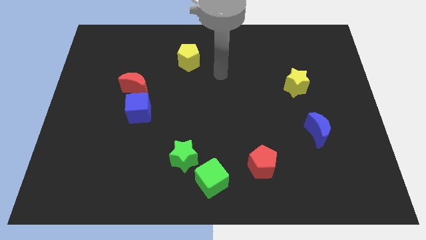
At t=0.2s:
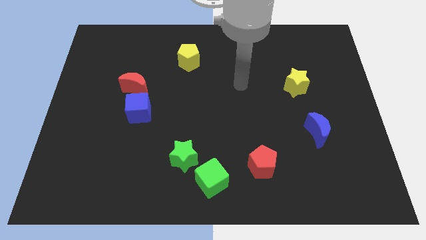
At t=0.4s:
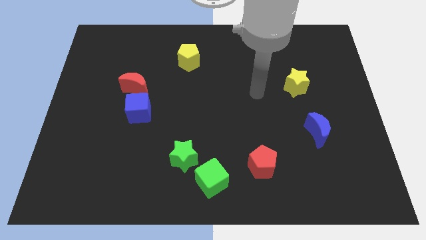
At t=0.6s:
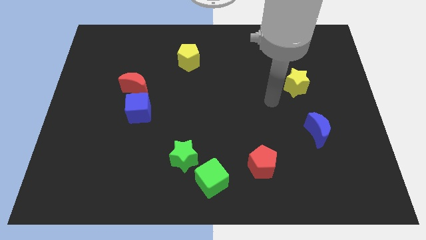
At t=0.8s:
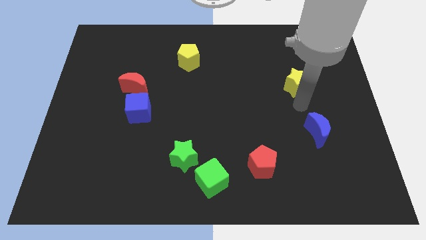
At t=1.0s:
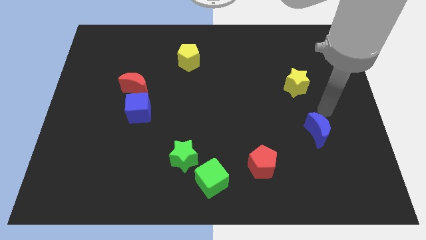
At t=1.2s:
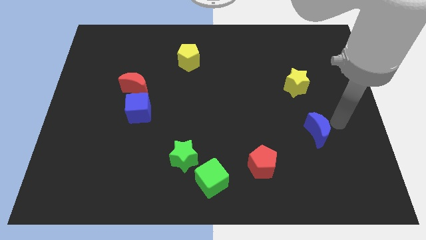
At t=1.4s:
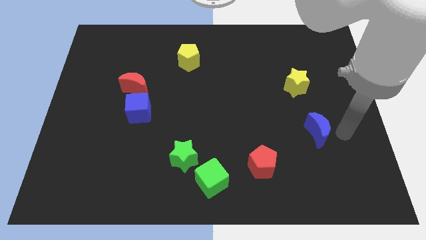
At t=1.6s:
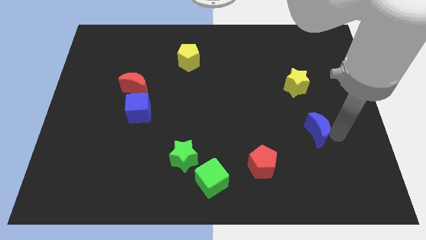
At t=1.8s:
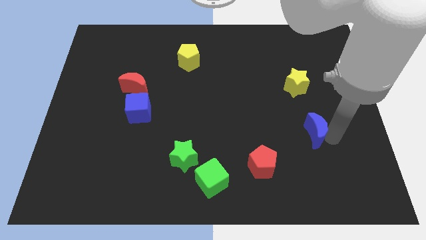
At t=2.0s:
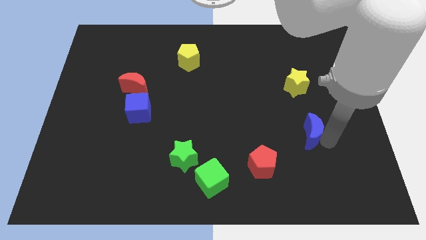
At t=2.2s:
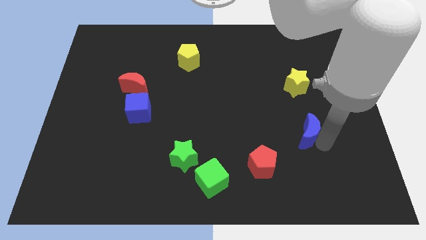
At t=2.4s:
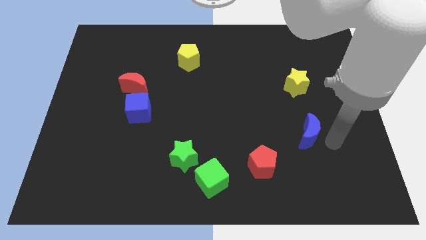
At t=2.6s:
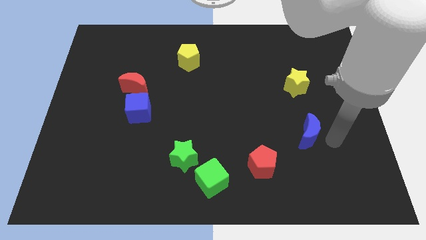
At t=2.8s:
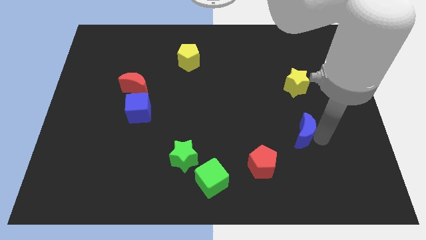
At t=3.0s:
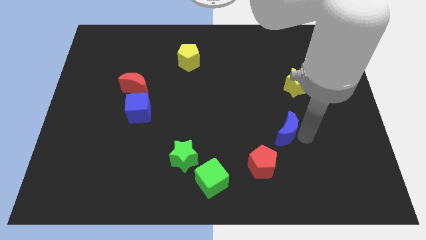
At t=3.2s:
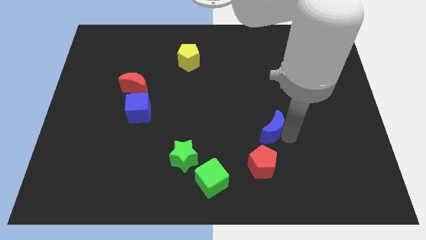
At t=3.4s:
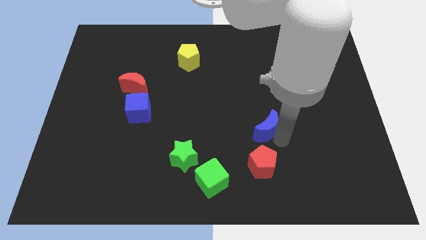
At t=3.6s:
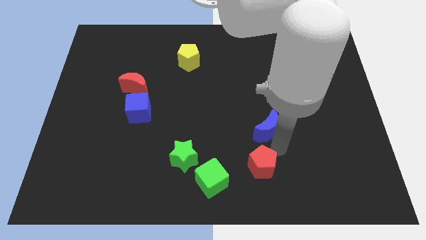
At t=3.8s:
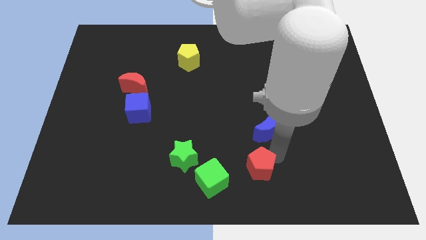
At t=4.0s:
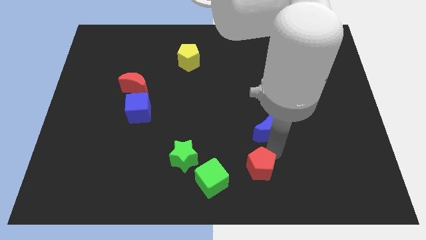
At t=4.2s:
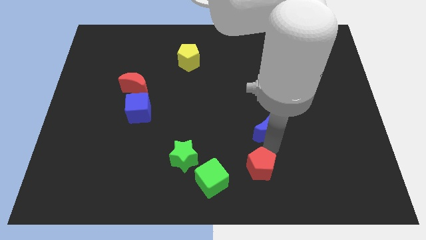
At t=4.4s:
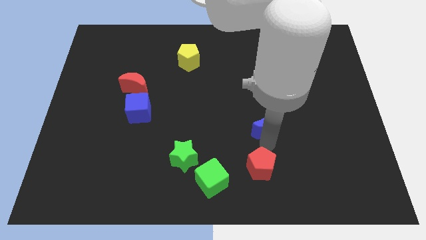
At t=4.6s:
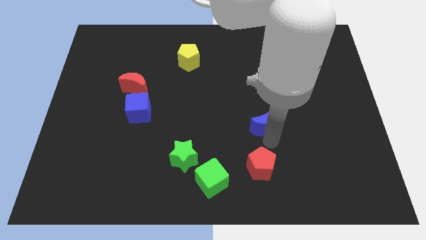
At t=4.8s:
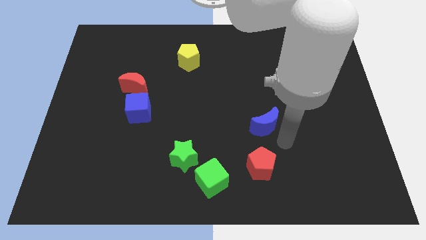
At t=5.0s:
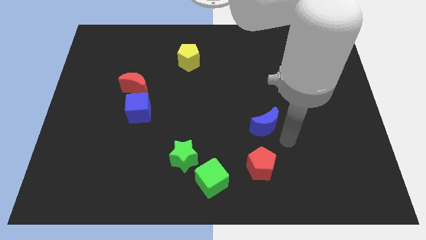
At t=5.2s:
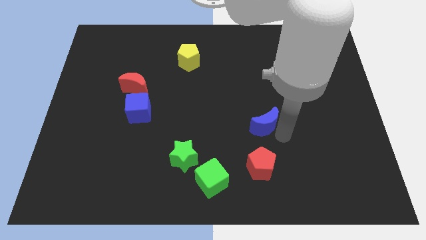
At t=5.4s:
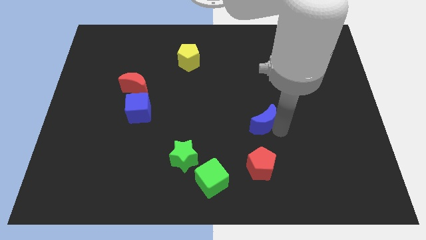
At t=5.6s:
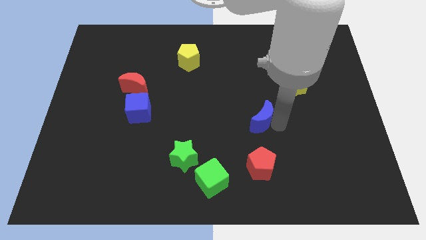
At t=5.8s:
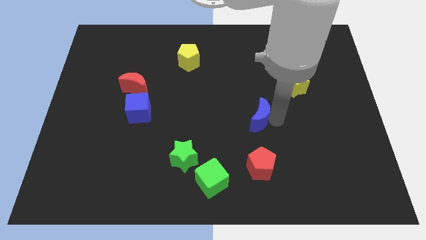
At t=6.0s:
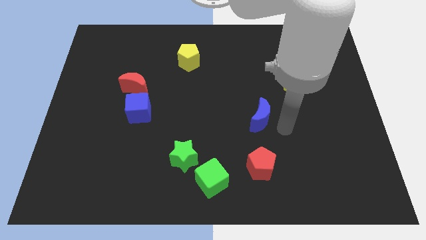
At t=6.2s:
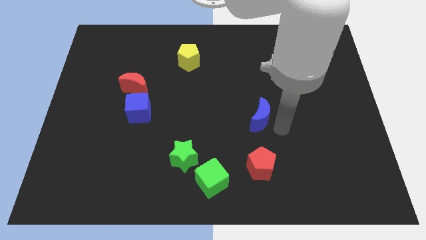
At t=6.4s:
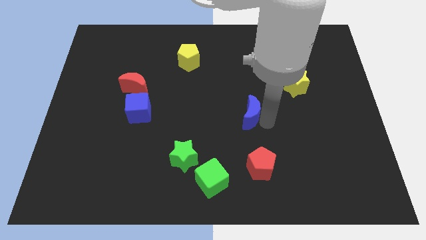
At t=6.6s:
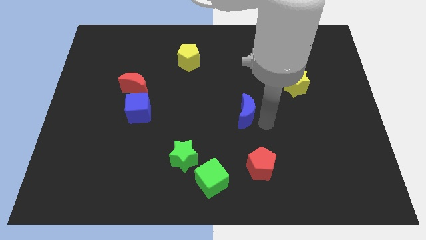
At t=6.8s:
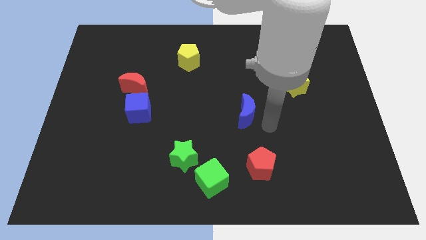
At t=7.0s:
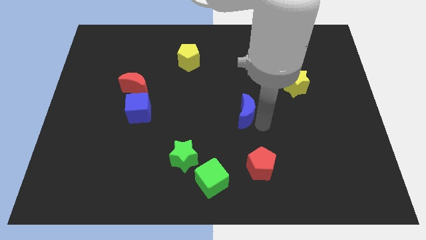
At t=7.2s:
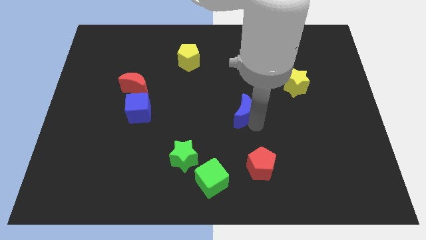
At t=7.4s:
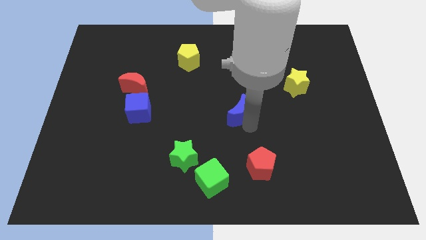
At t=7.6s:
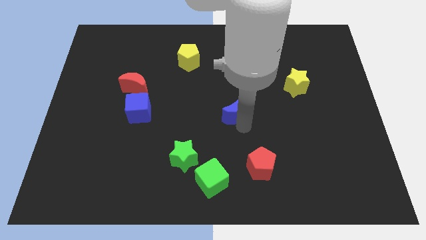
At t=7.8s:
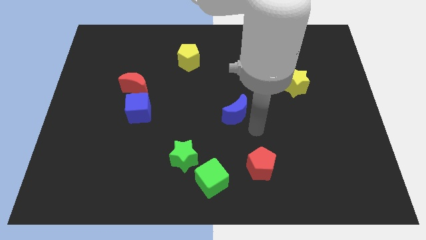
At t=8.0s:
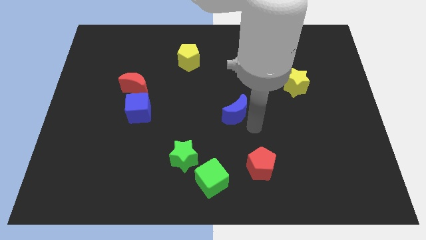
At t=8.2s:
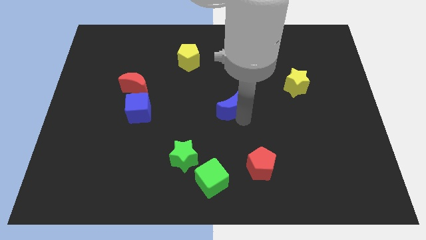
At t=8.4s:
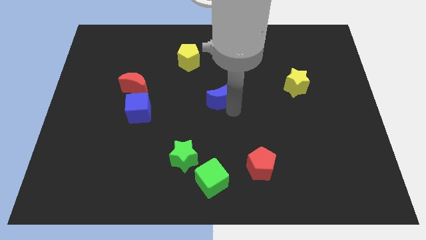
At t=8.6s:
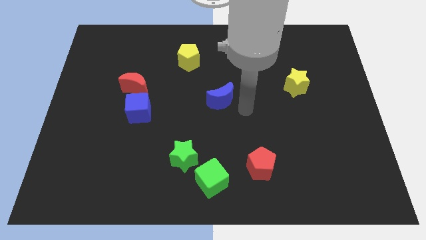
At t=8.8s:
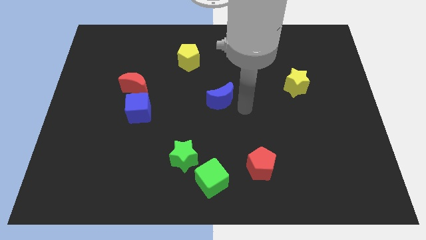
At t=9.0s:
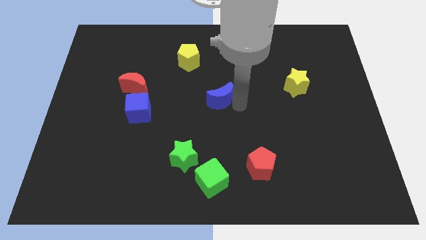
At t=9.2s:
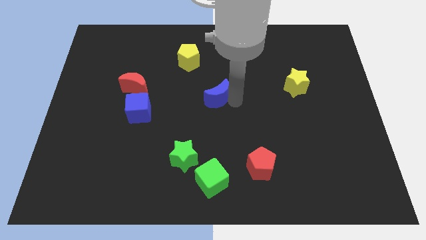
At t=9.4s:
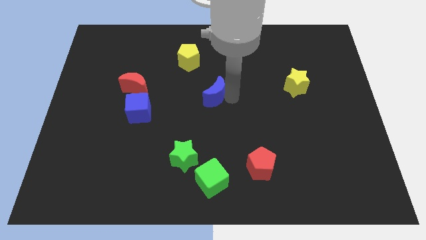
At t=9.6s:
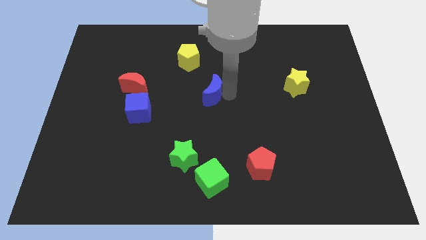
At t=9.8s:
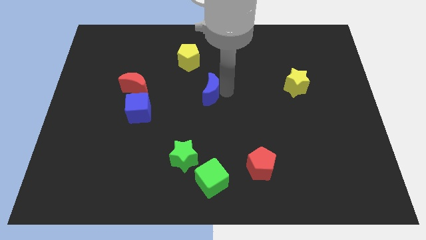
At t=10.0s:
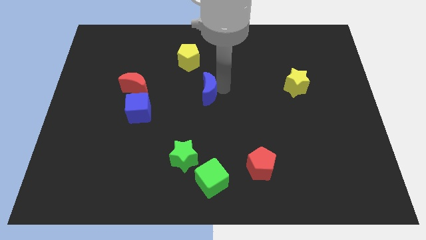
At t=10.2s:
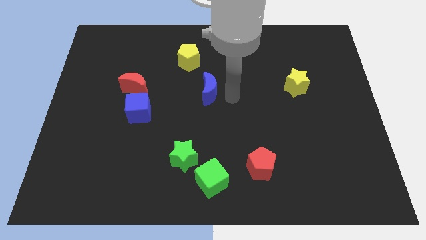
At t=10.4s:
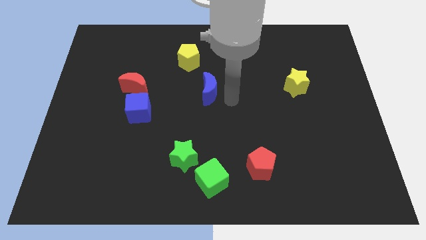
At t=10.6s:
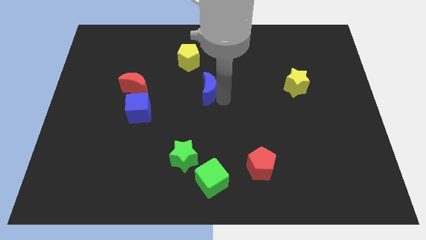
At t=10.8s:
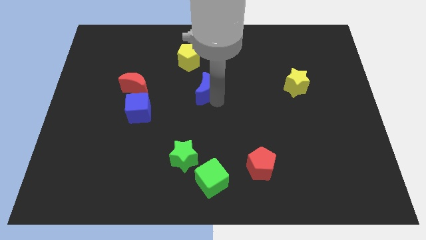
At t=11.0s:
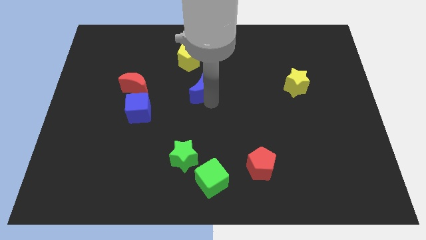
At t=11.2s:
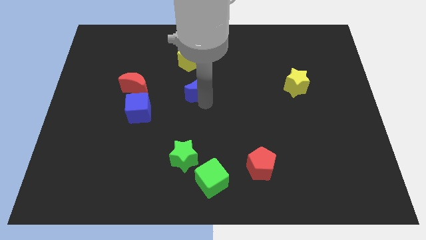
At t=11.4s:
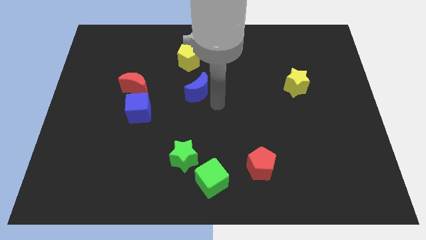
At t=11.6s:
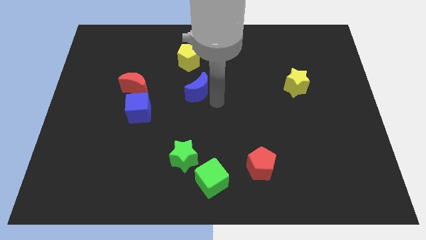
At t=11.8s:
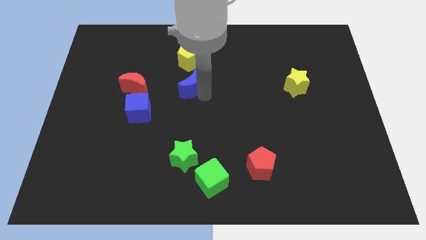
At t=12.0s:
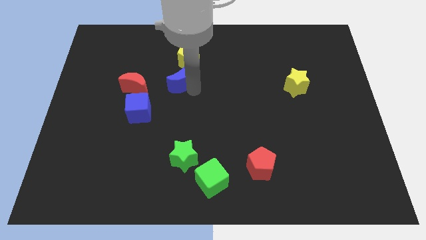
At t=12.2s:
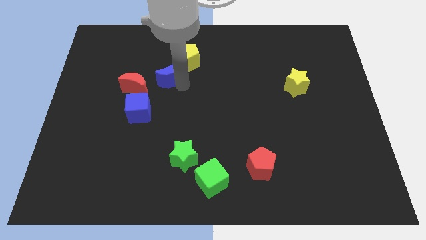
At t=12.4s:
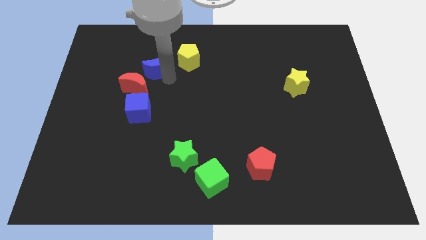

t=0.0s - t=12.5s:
push the blue moon to the top of the red moon

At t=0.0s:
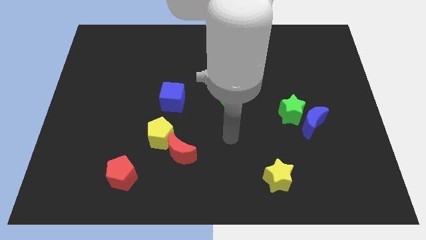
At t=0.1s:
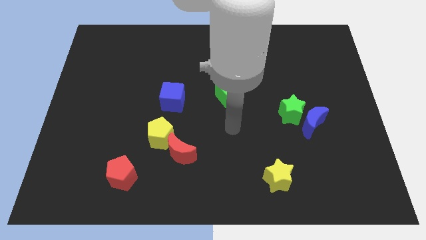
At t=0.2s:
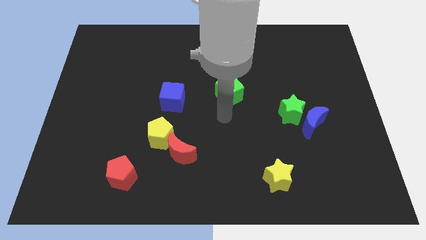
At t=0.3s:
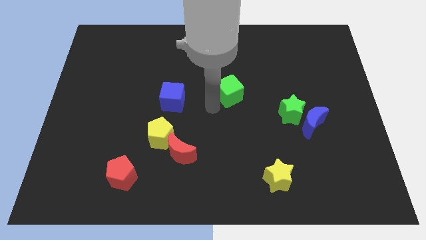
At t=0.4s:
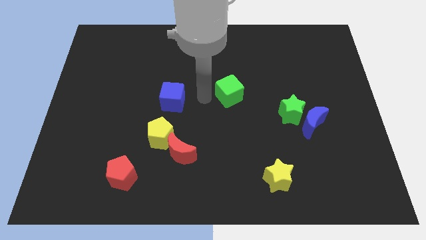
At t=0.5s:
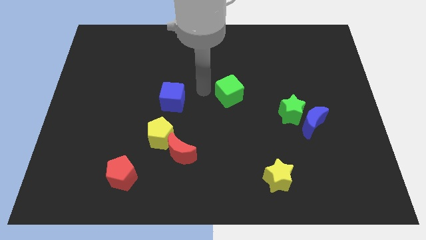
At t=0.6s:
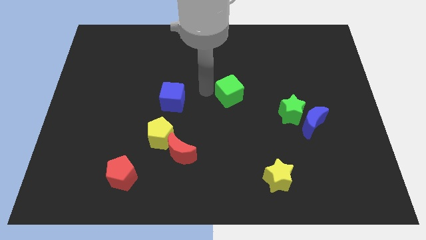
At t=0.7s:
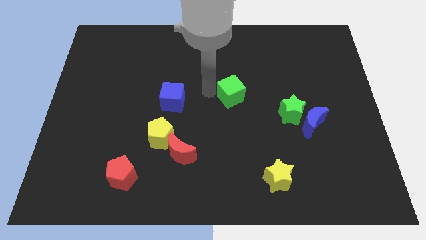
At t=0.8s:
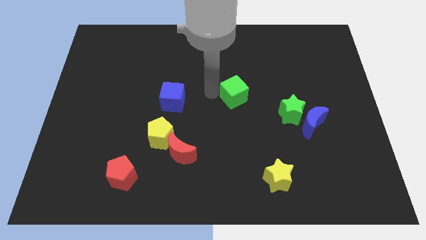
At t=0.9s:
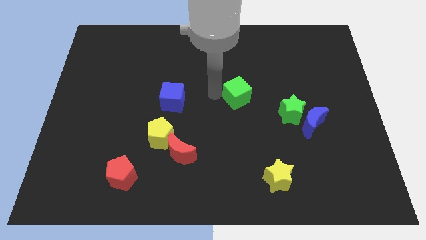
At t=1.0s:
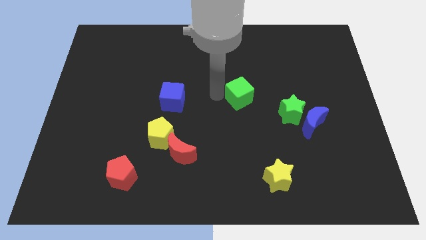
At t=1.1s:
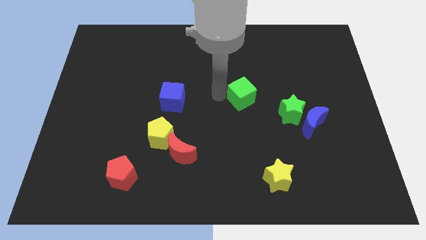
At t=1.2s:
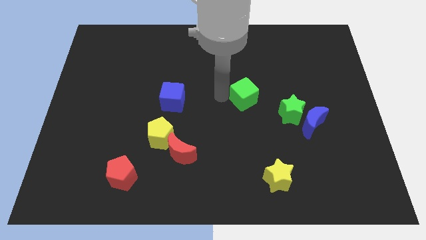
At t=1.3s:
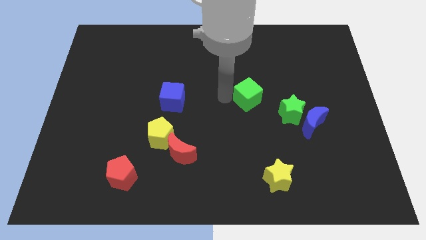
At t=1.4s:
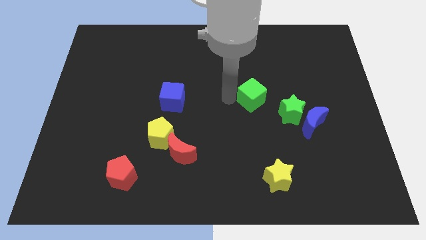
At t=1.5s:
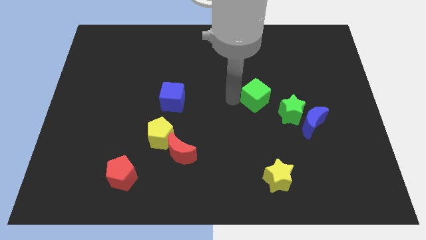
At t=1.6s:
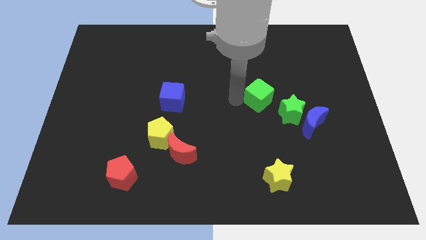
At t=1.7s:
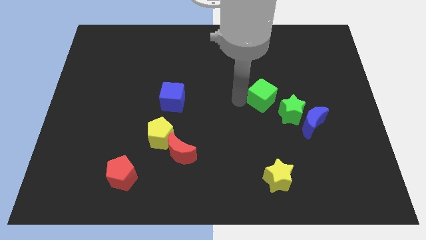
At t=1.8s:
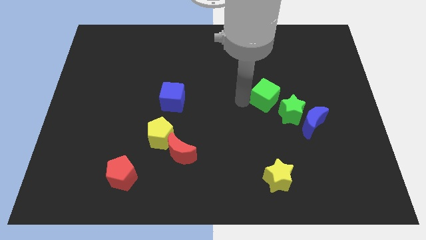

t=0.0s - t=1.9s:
move the green cube to the top left of the blue moon

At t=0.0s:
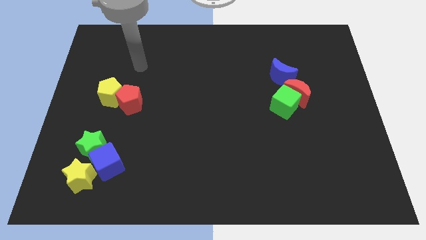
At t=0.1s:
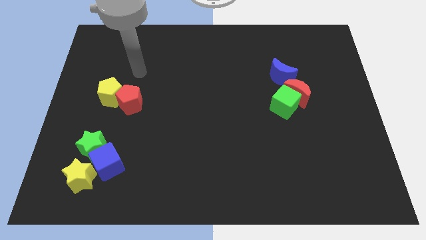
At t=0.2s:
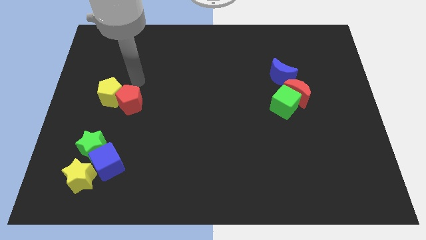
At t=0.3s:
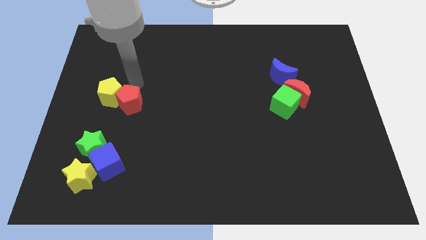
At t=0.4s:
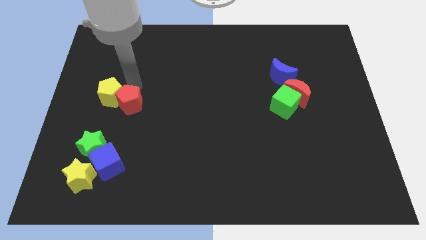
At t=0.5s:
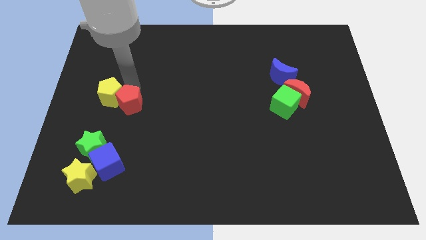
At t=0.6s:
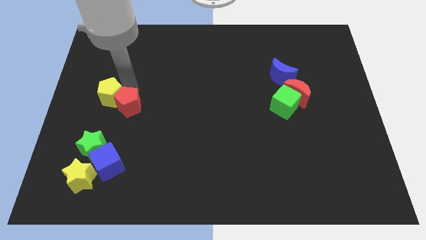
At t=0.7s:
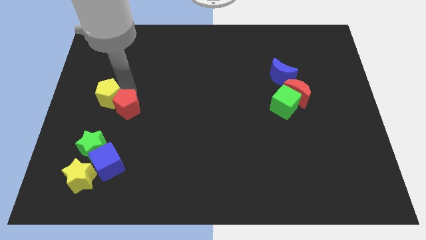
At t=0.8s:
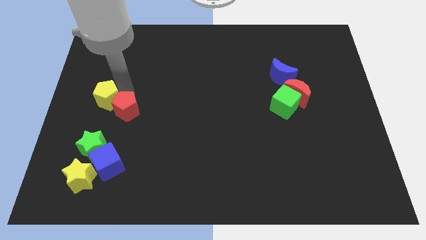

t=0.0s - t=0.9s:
slide the red pentagon diagonally up and to the right of the green star
